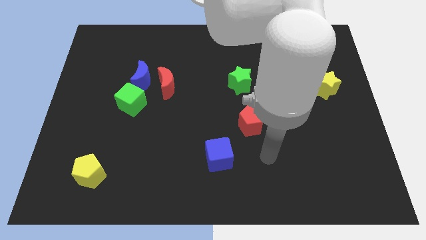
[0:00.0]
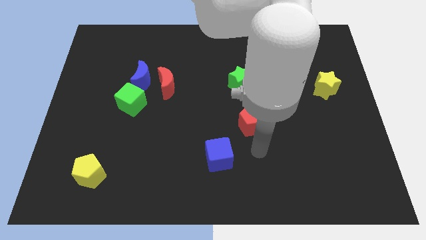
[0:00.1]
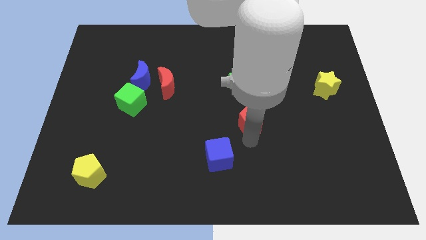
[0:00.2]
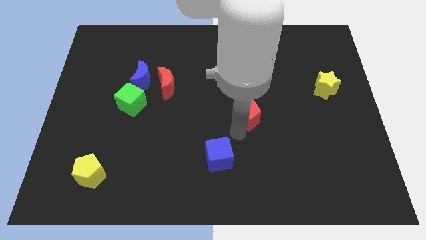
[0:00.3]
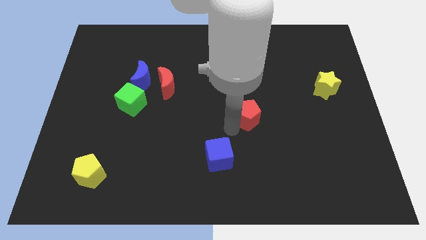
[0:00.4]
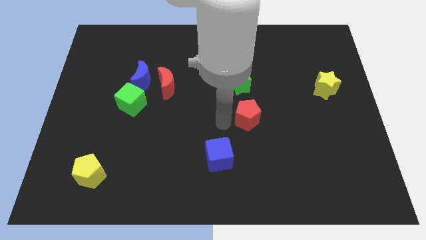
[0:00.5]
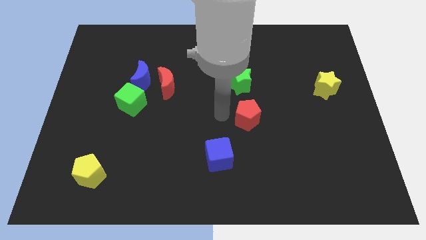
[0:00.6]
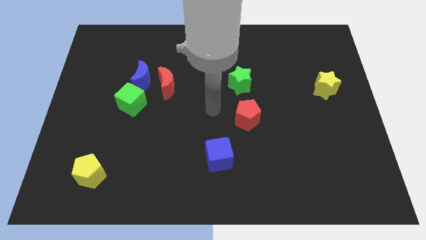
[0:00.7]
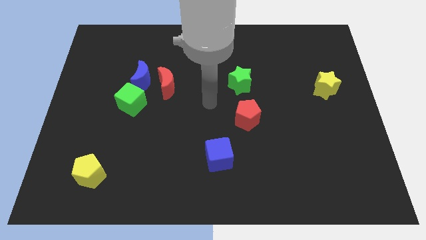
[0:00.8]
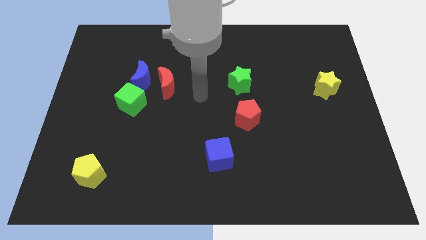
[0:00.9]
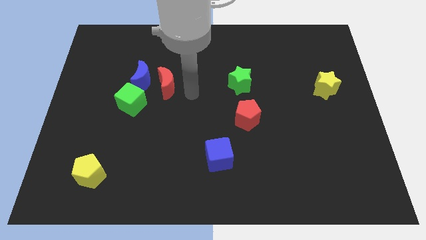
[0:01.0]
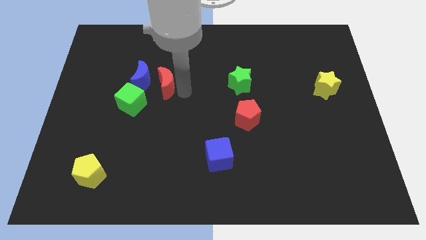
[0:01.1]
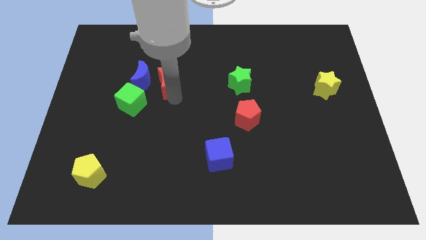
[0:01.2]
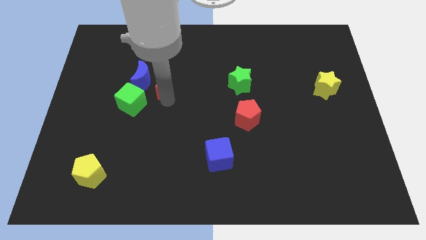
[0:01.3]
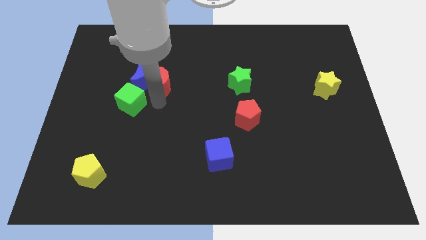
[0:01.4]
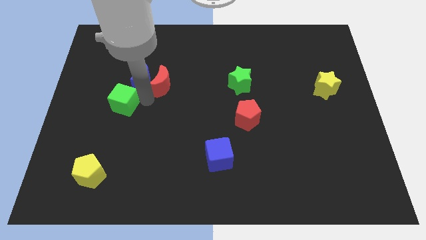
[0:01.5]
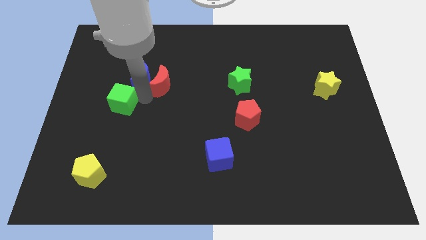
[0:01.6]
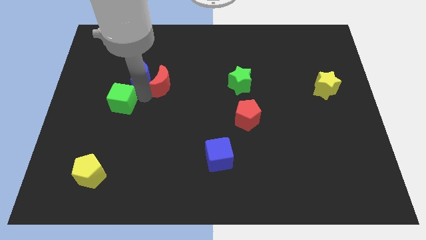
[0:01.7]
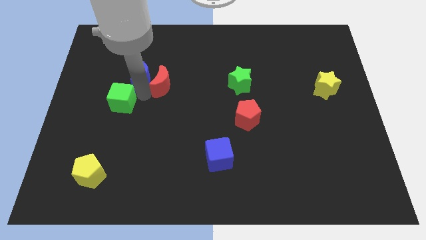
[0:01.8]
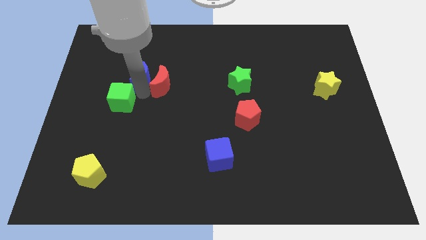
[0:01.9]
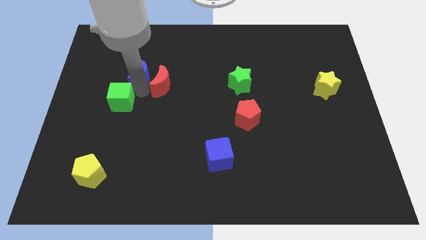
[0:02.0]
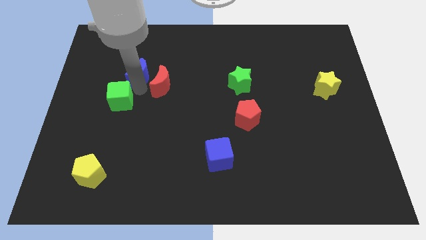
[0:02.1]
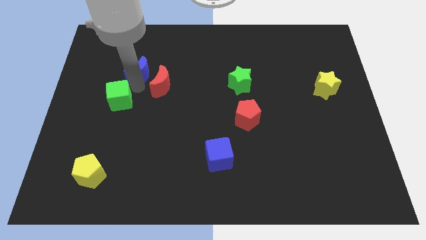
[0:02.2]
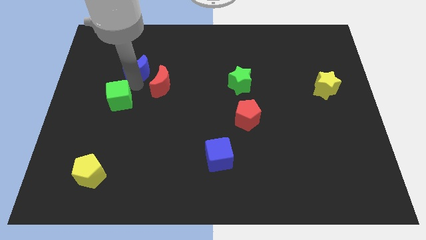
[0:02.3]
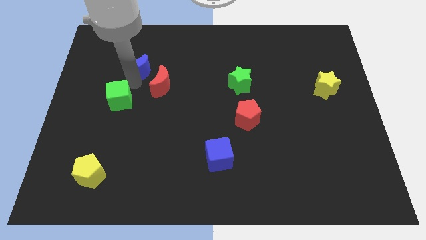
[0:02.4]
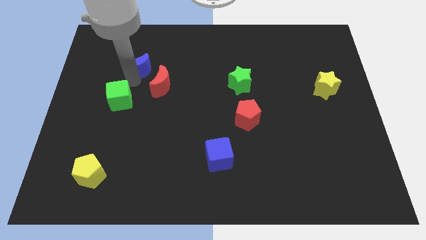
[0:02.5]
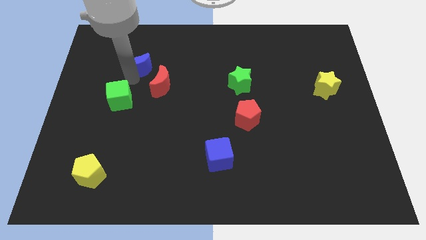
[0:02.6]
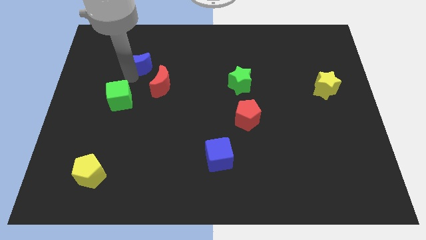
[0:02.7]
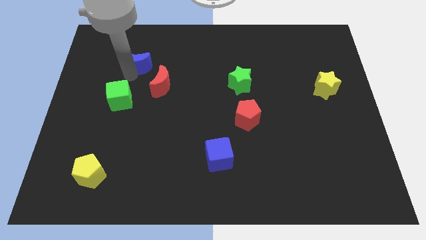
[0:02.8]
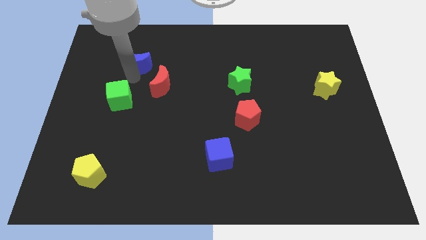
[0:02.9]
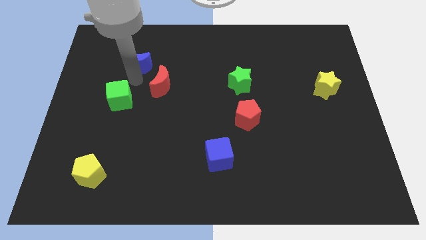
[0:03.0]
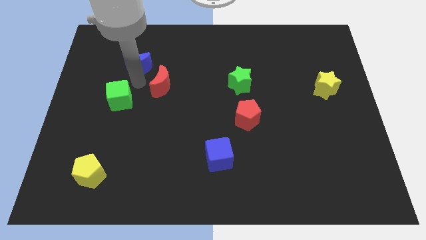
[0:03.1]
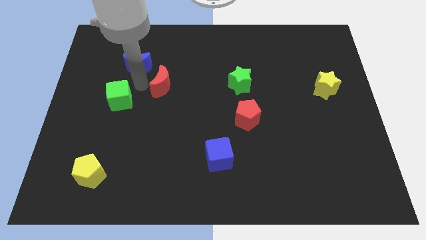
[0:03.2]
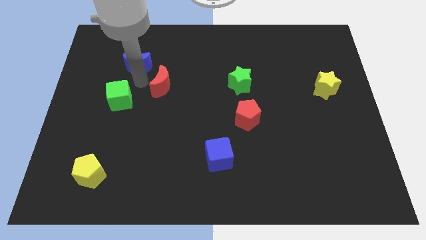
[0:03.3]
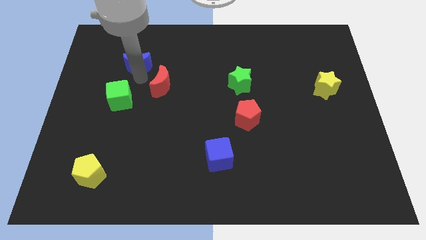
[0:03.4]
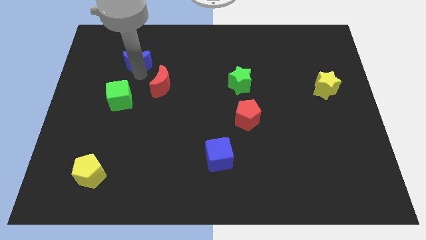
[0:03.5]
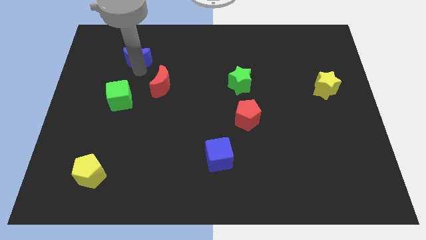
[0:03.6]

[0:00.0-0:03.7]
move the blue moon away from the red moon and green cube

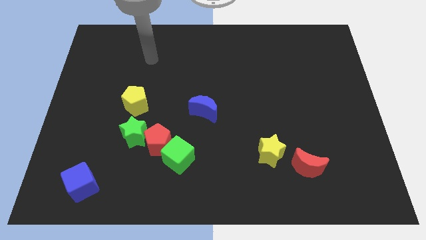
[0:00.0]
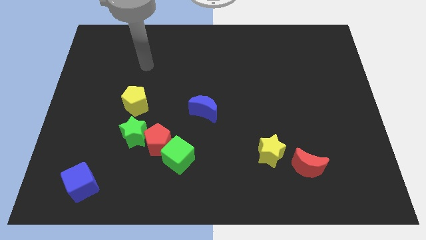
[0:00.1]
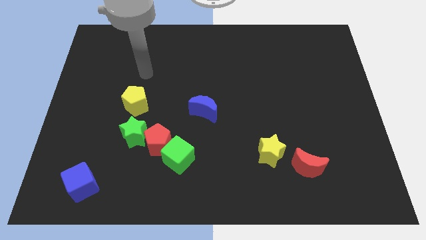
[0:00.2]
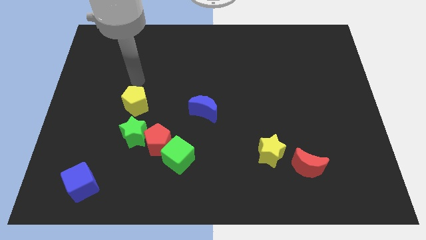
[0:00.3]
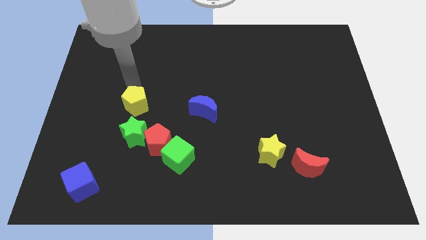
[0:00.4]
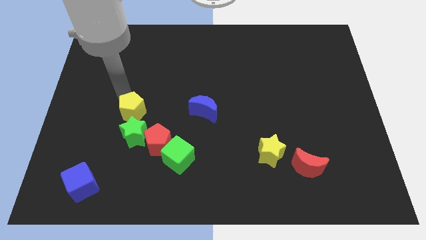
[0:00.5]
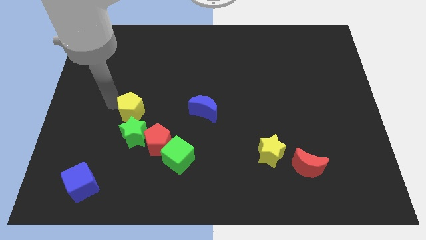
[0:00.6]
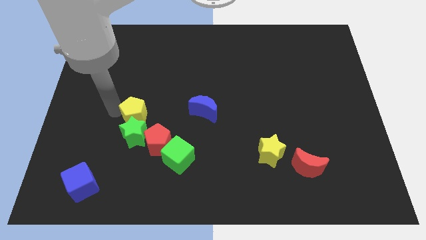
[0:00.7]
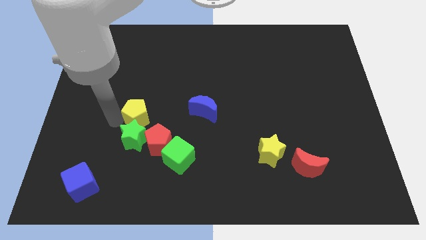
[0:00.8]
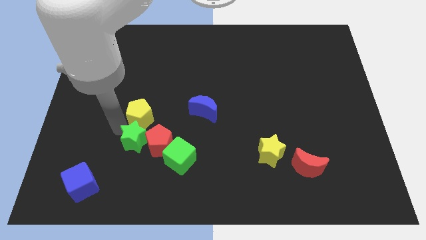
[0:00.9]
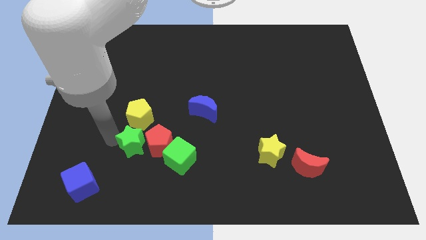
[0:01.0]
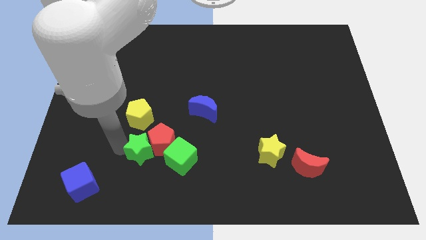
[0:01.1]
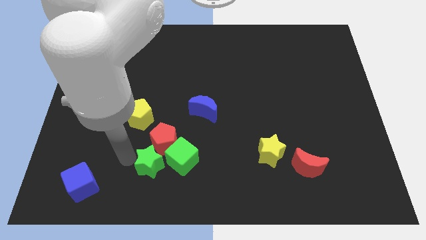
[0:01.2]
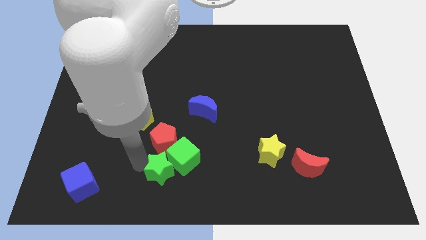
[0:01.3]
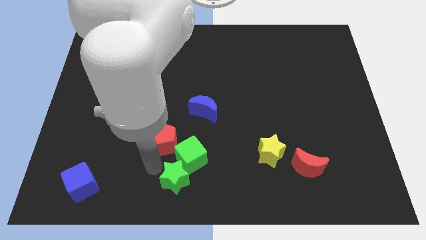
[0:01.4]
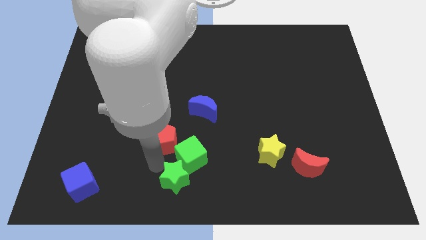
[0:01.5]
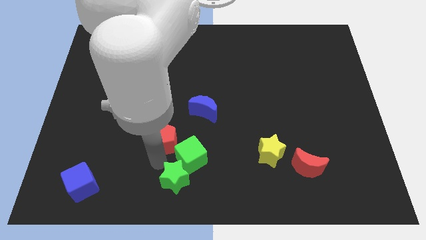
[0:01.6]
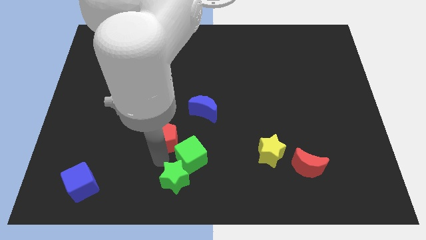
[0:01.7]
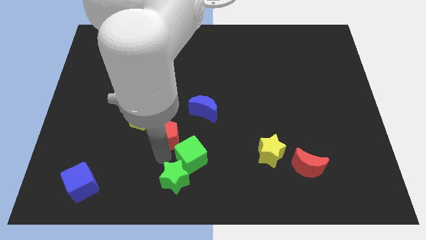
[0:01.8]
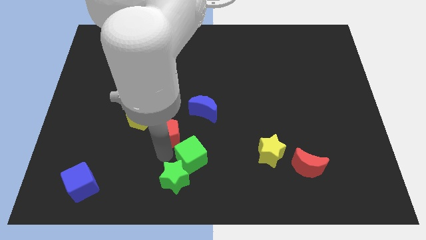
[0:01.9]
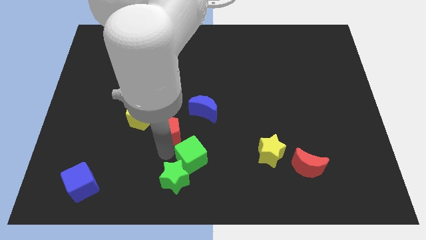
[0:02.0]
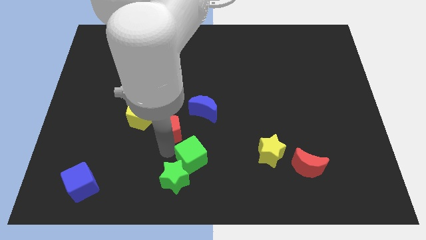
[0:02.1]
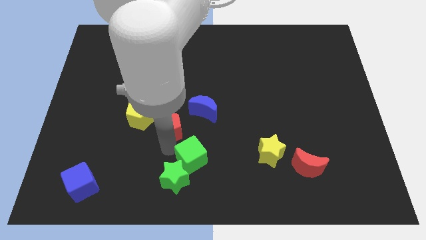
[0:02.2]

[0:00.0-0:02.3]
pull the red pentagon apart from the green star and green cube

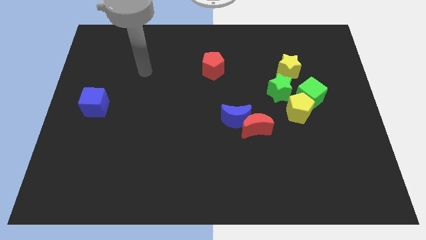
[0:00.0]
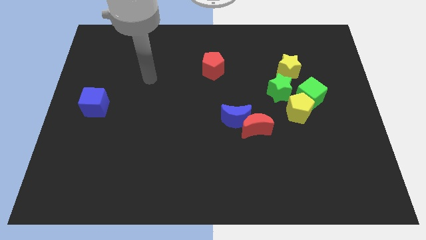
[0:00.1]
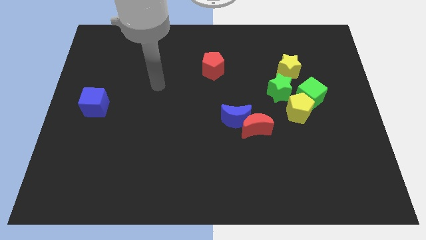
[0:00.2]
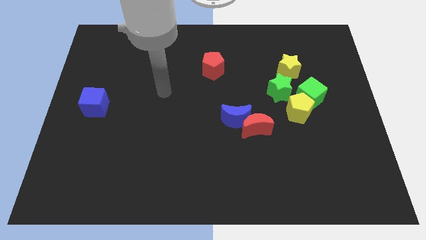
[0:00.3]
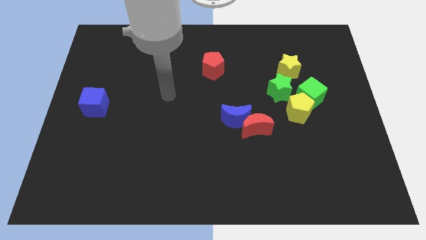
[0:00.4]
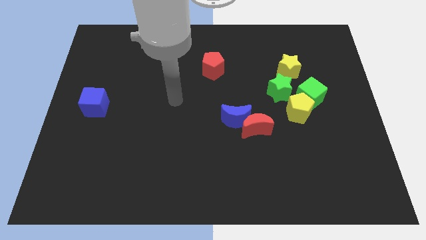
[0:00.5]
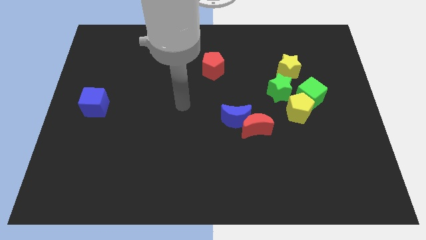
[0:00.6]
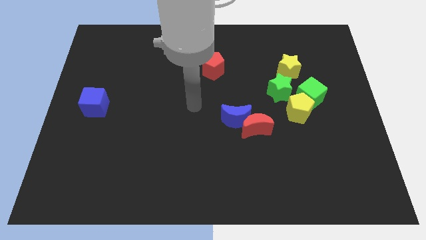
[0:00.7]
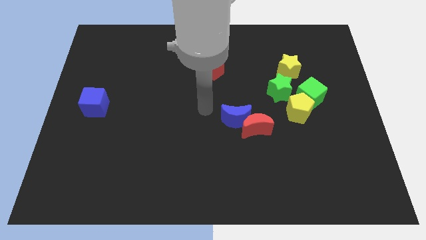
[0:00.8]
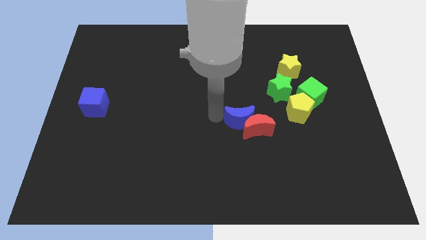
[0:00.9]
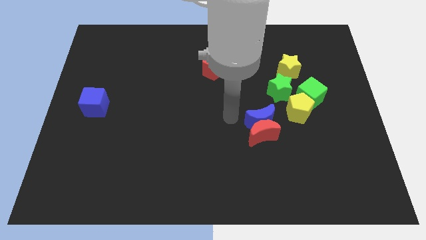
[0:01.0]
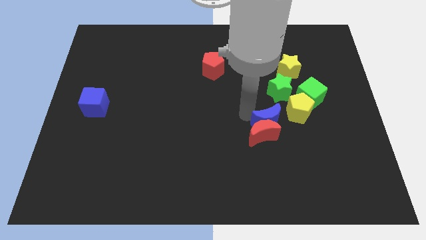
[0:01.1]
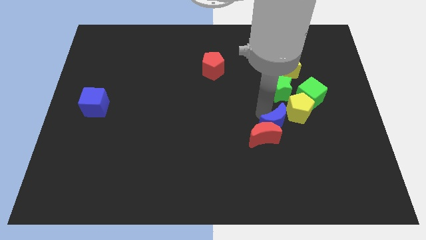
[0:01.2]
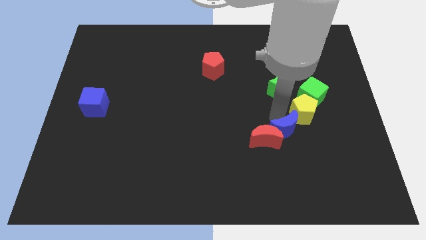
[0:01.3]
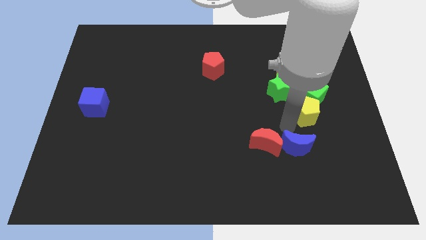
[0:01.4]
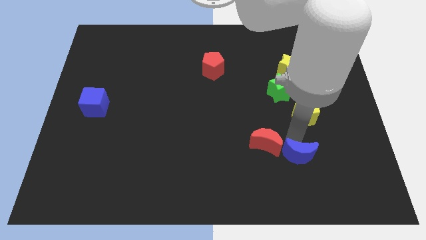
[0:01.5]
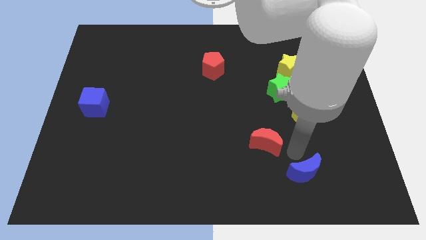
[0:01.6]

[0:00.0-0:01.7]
move the red moon away from the blue moon

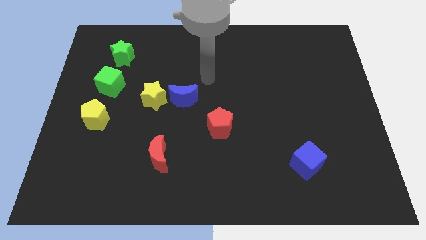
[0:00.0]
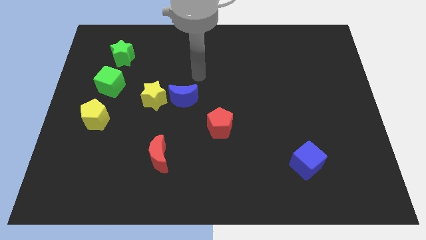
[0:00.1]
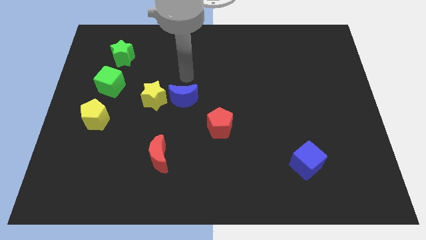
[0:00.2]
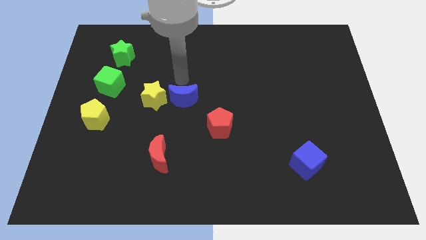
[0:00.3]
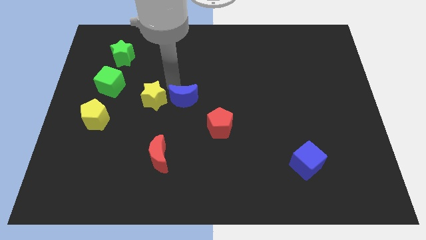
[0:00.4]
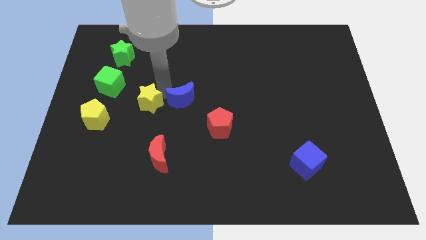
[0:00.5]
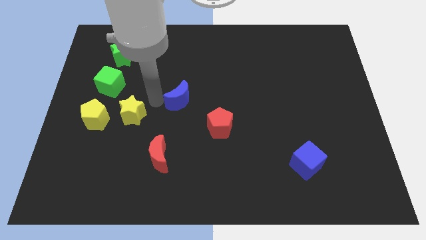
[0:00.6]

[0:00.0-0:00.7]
separate the blue moon from the yellow star

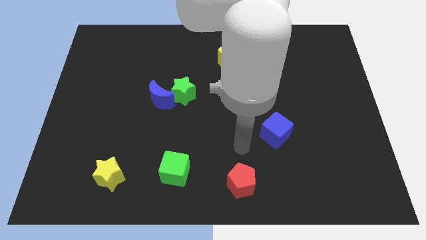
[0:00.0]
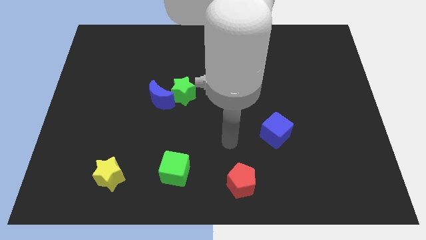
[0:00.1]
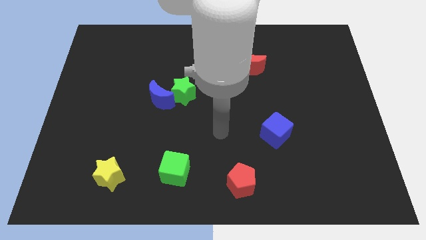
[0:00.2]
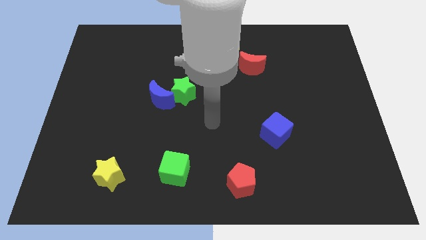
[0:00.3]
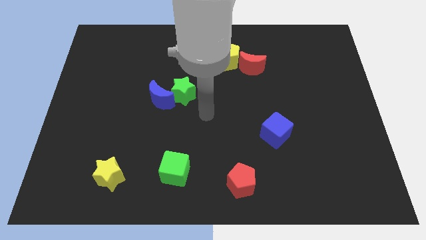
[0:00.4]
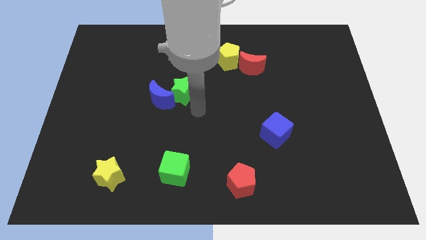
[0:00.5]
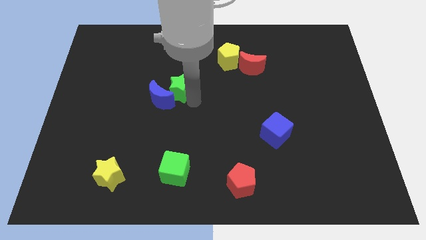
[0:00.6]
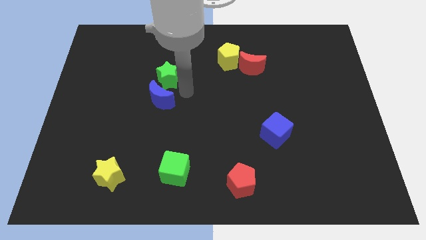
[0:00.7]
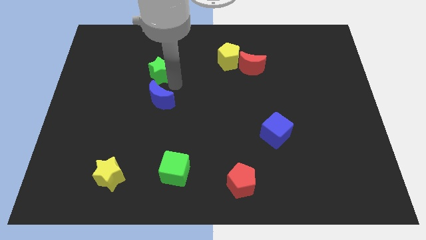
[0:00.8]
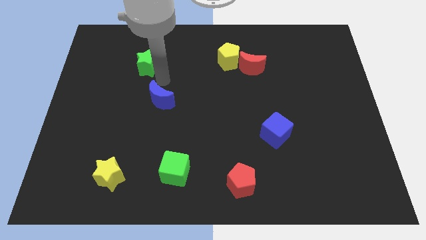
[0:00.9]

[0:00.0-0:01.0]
separate the blue moon from the green star
